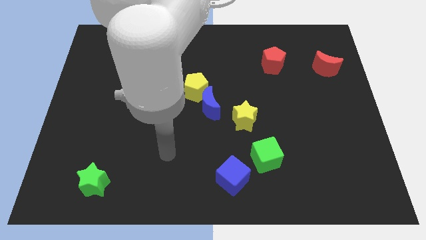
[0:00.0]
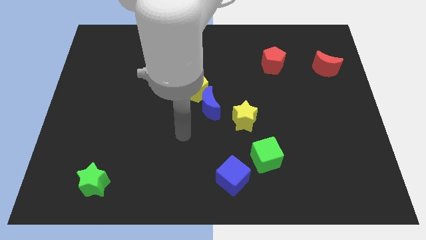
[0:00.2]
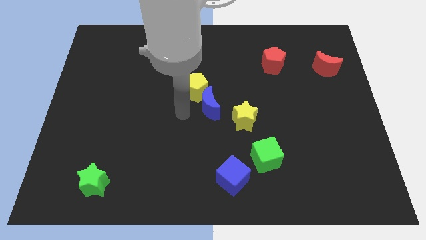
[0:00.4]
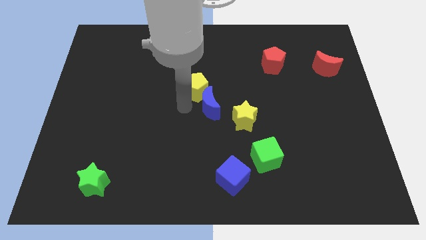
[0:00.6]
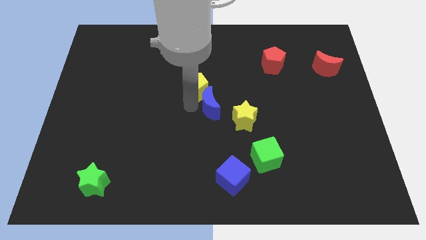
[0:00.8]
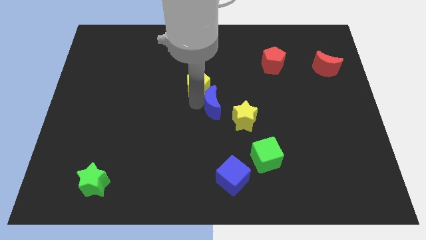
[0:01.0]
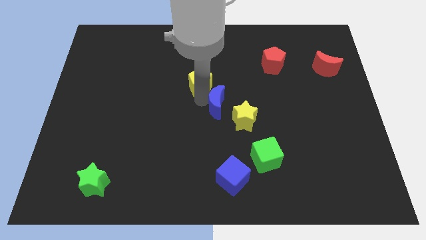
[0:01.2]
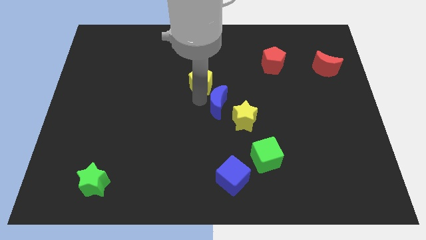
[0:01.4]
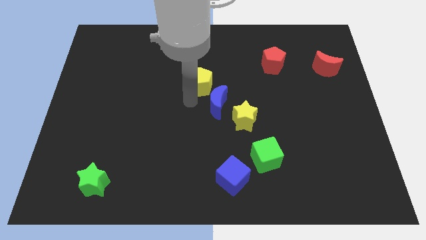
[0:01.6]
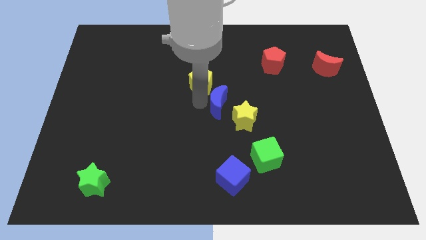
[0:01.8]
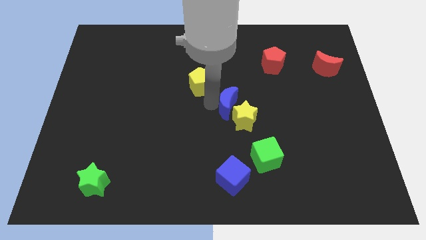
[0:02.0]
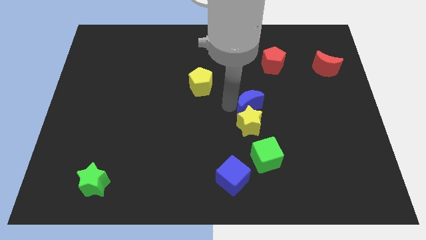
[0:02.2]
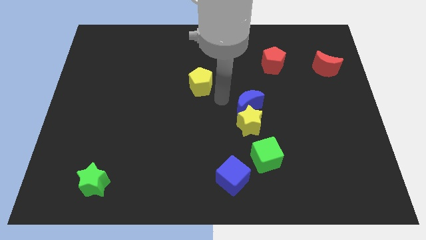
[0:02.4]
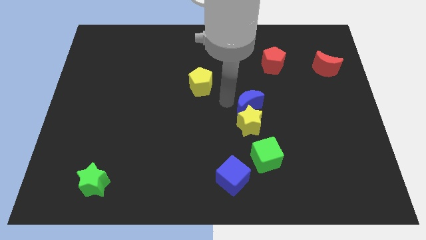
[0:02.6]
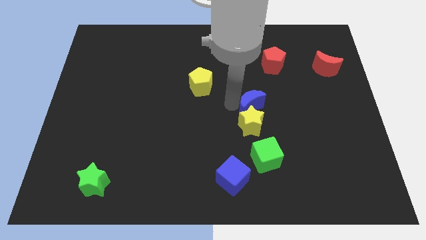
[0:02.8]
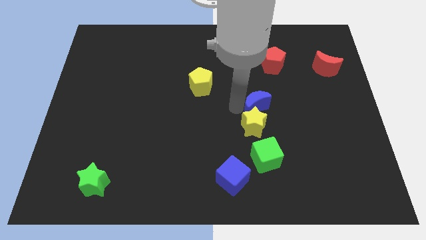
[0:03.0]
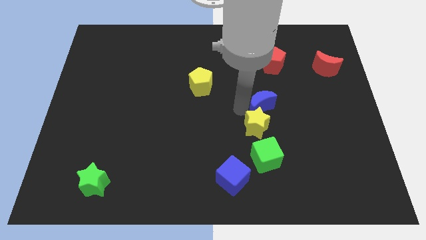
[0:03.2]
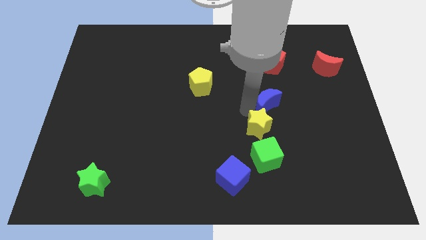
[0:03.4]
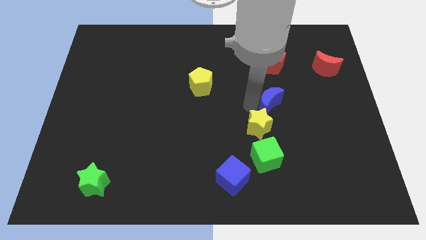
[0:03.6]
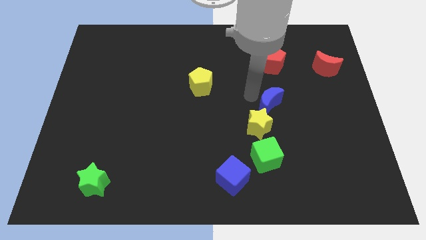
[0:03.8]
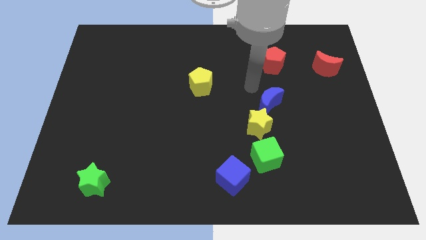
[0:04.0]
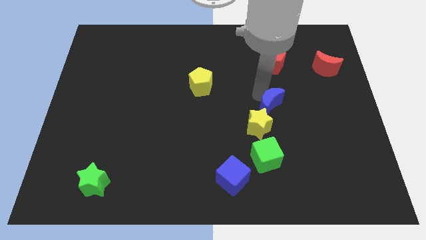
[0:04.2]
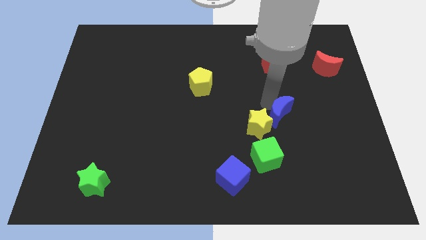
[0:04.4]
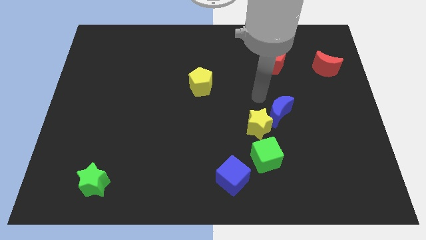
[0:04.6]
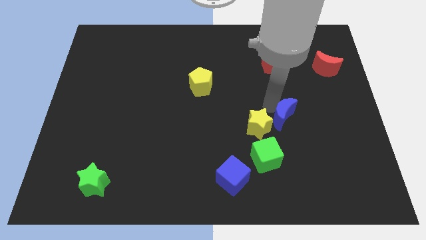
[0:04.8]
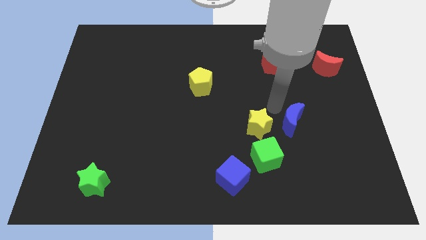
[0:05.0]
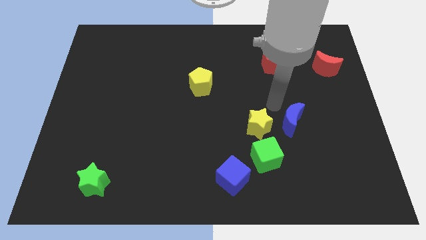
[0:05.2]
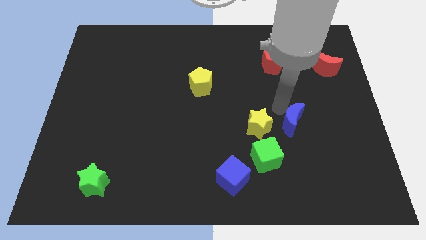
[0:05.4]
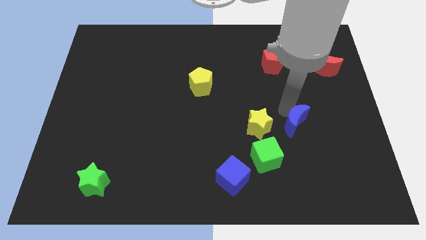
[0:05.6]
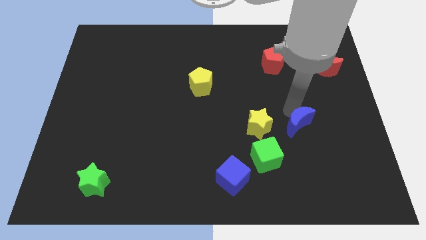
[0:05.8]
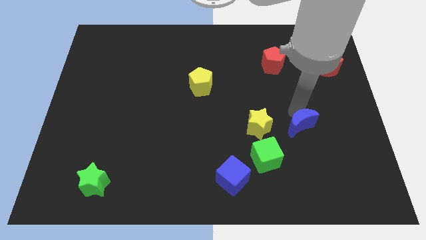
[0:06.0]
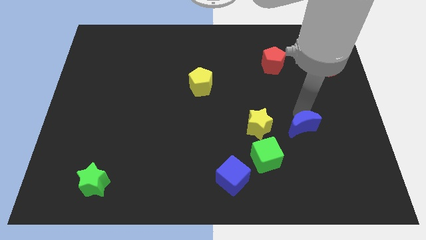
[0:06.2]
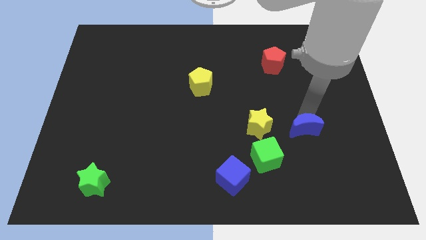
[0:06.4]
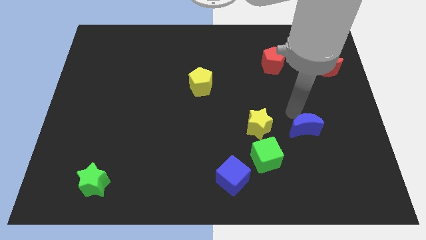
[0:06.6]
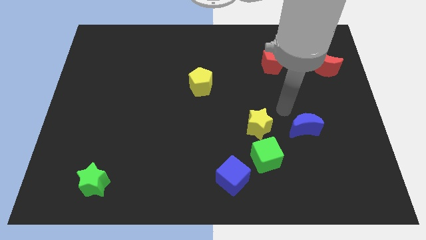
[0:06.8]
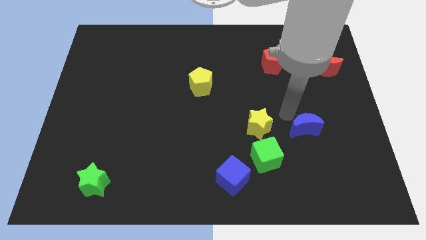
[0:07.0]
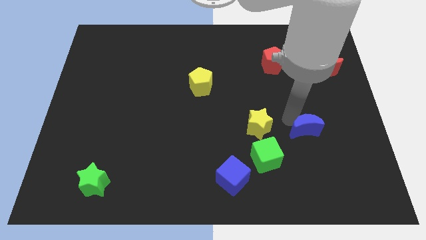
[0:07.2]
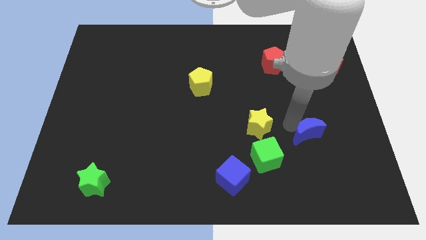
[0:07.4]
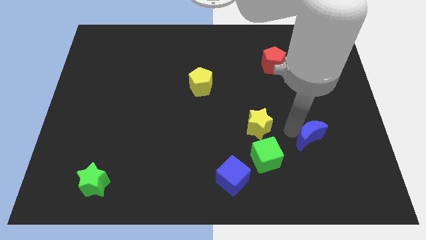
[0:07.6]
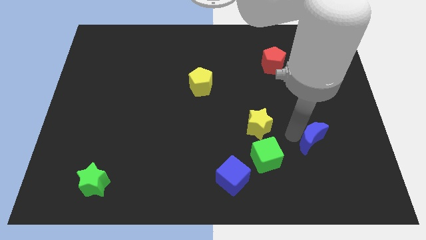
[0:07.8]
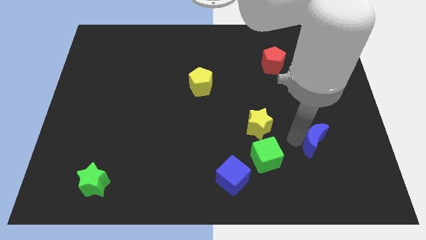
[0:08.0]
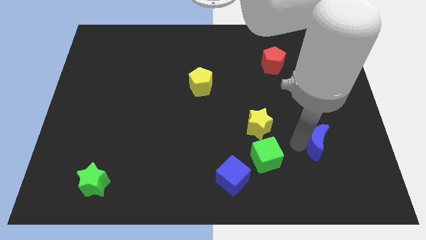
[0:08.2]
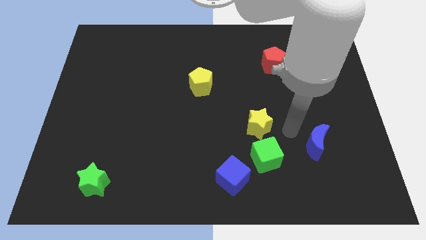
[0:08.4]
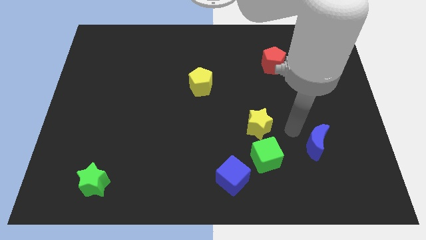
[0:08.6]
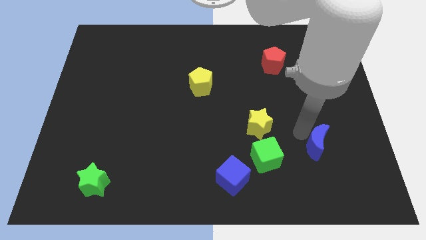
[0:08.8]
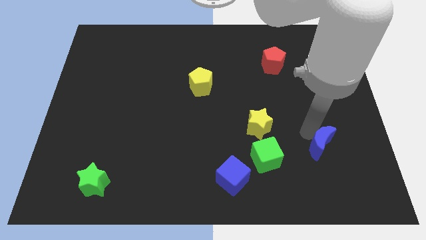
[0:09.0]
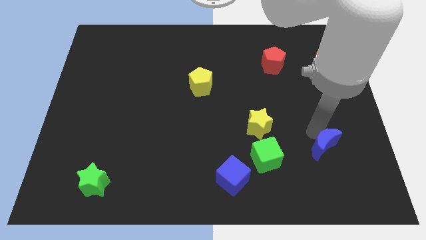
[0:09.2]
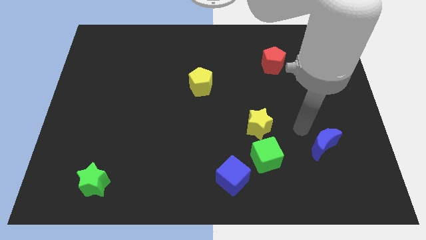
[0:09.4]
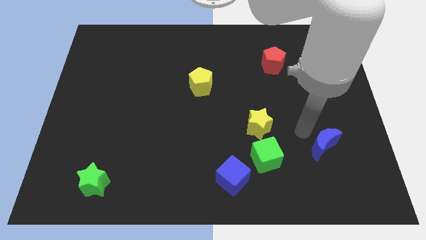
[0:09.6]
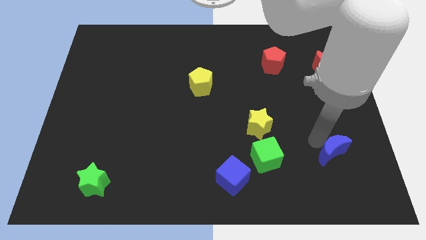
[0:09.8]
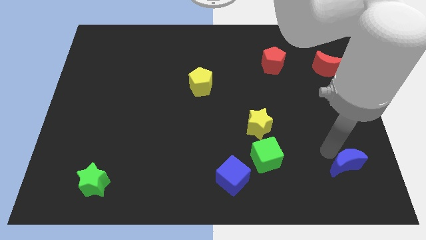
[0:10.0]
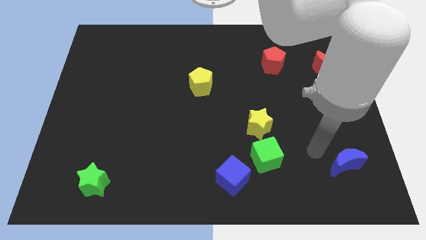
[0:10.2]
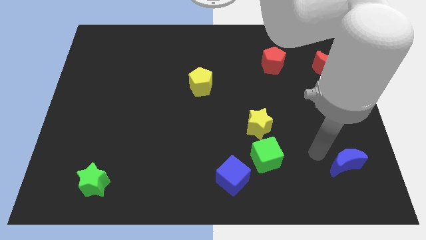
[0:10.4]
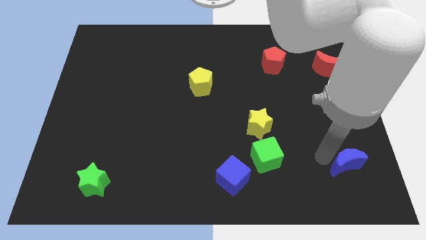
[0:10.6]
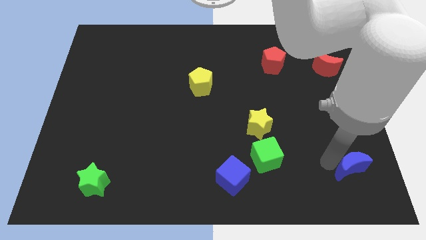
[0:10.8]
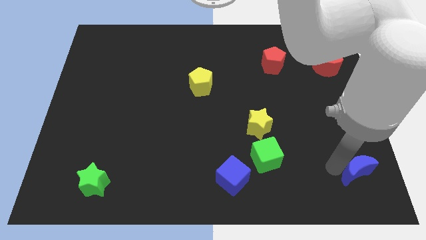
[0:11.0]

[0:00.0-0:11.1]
push the blue moon to the bottom right of the board
